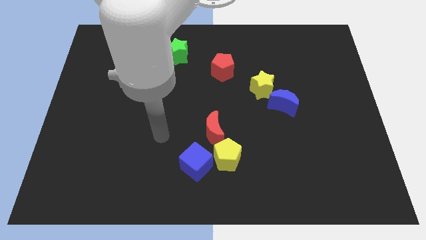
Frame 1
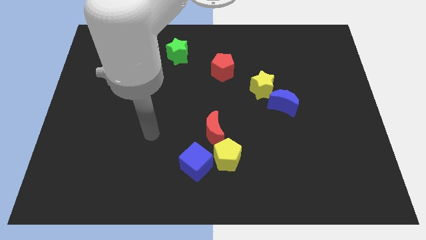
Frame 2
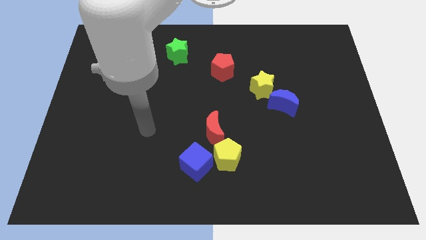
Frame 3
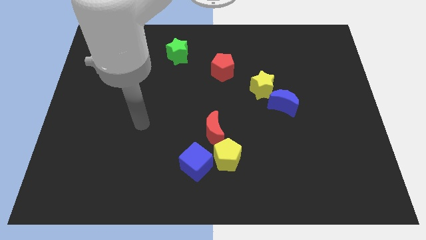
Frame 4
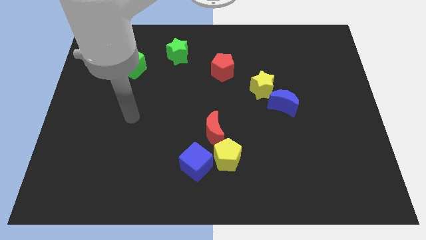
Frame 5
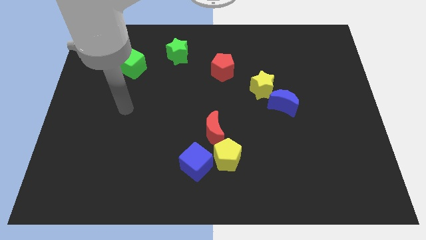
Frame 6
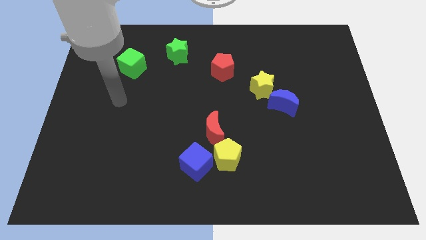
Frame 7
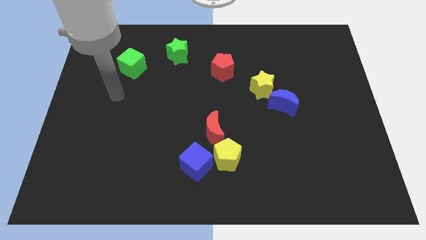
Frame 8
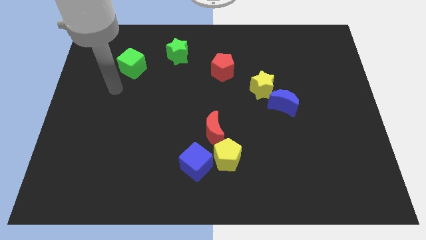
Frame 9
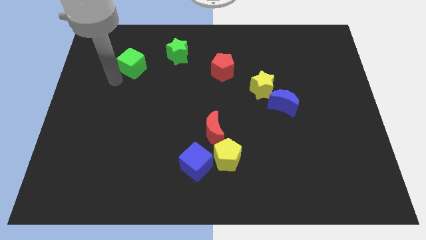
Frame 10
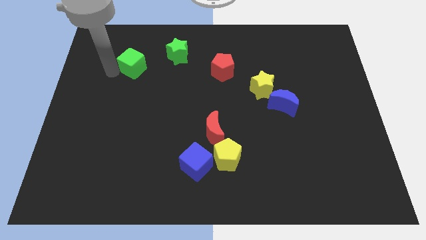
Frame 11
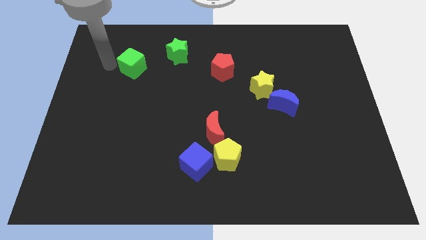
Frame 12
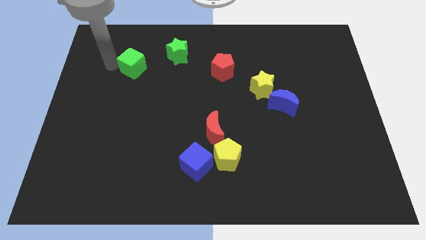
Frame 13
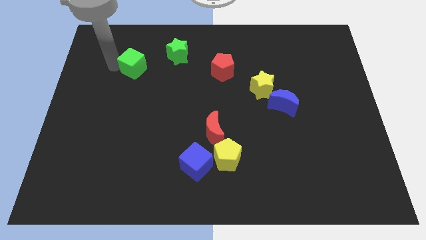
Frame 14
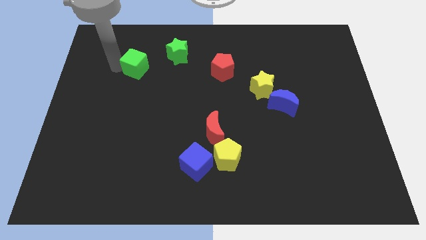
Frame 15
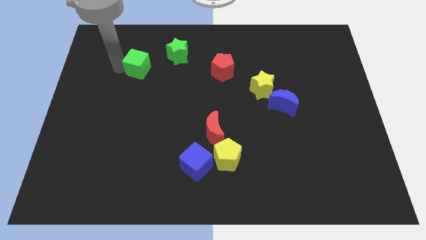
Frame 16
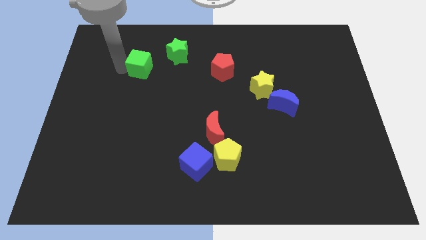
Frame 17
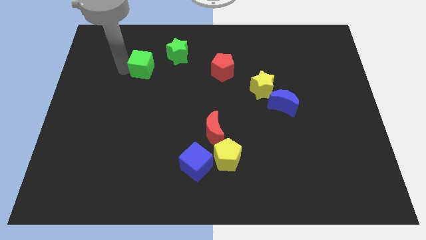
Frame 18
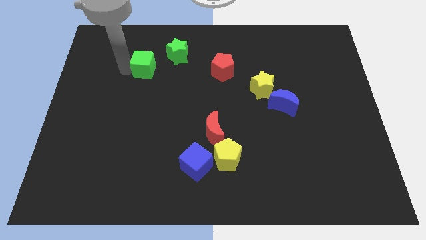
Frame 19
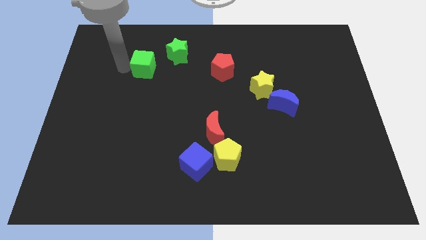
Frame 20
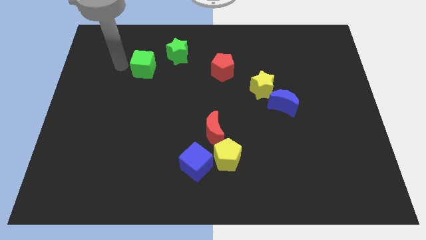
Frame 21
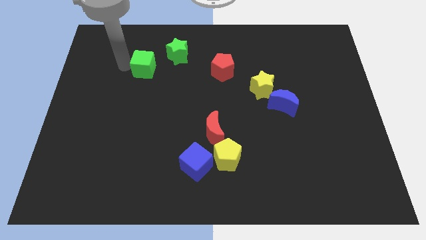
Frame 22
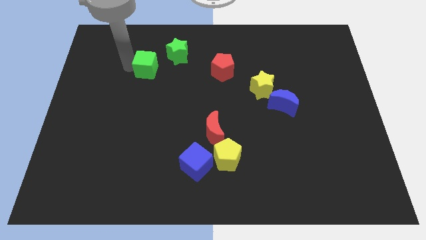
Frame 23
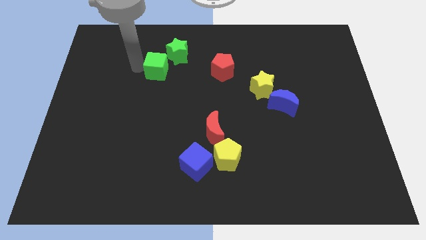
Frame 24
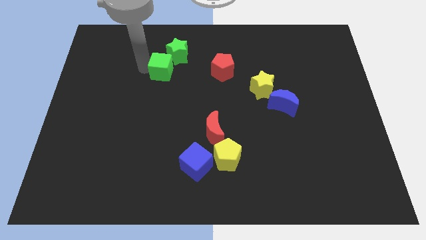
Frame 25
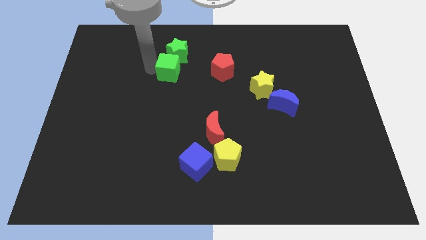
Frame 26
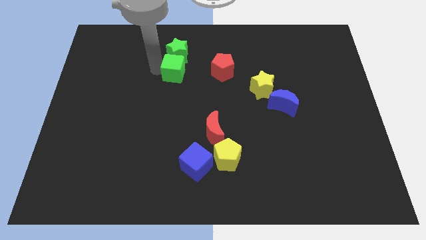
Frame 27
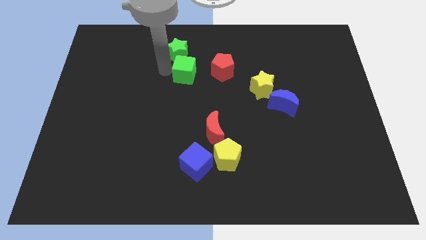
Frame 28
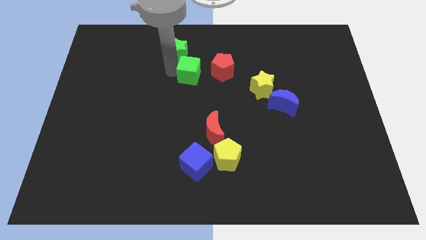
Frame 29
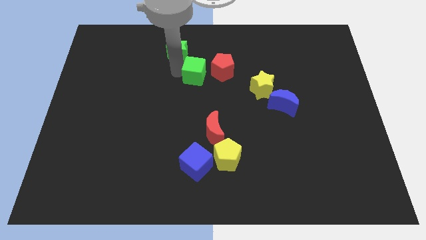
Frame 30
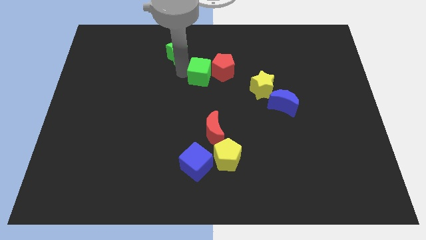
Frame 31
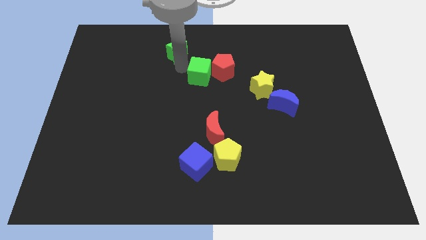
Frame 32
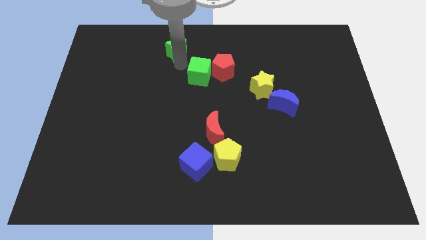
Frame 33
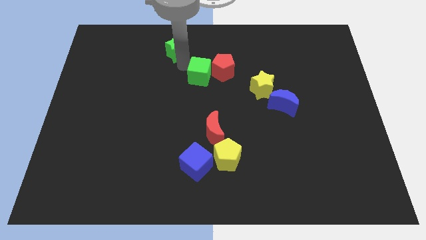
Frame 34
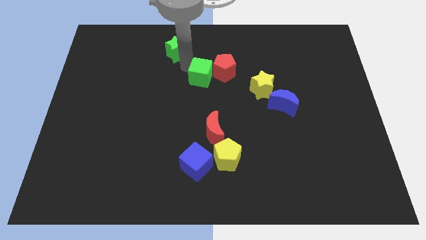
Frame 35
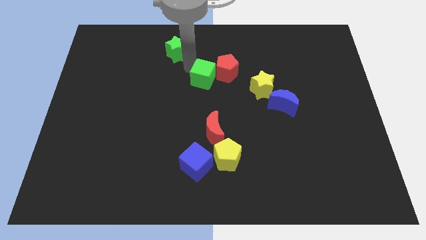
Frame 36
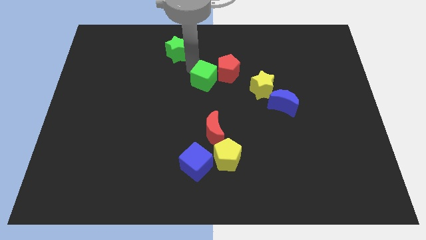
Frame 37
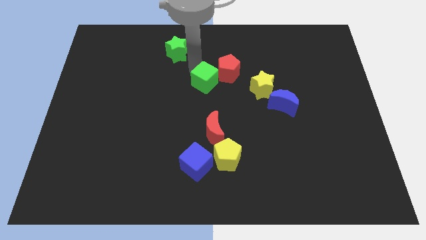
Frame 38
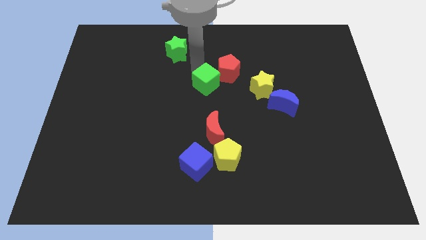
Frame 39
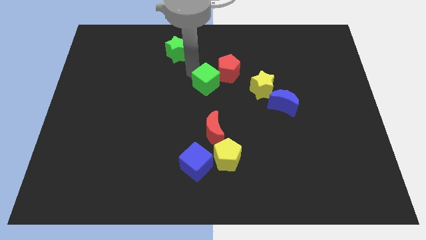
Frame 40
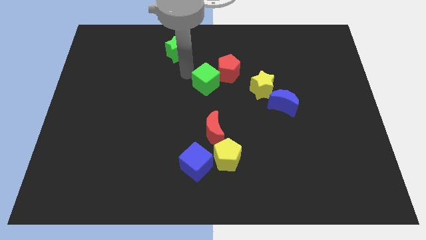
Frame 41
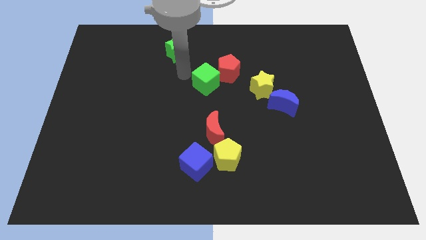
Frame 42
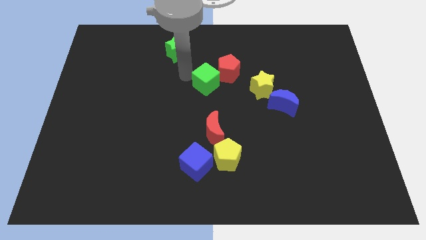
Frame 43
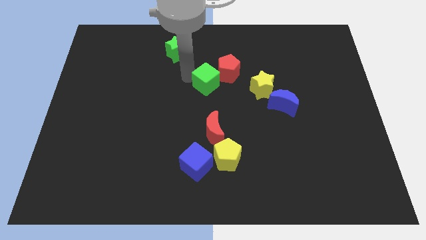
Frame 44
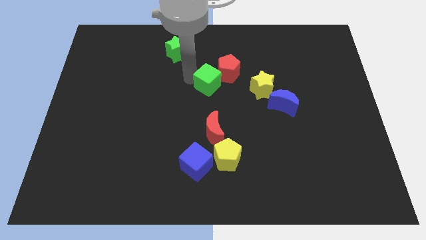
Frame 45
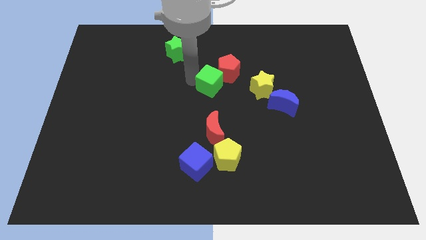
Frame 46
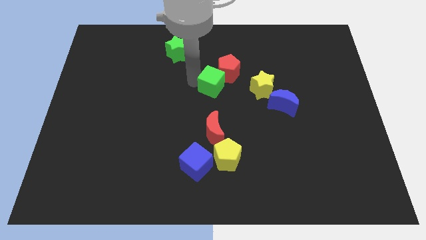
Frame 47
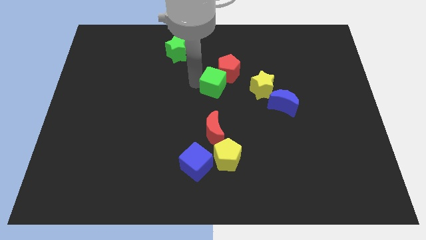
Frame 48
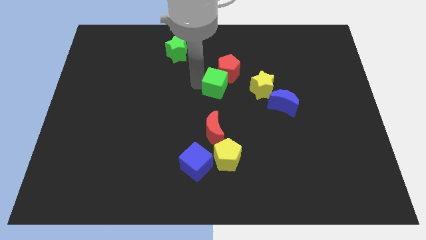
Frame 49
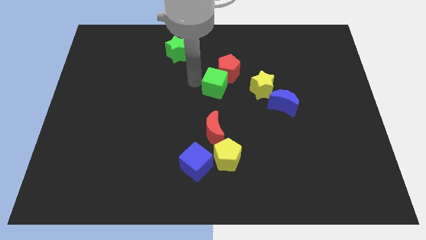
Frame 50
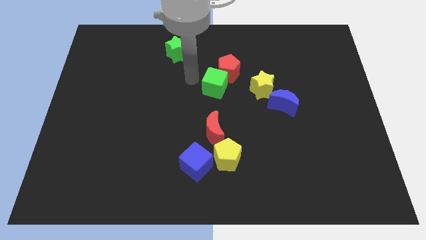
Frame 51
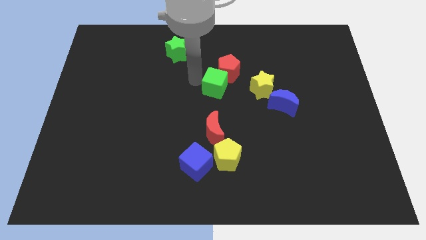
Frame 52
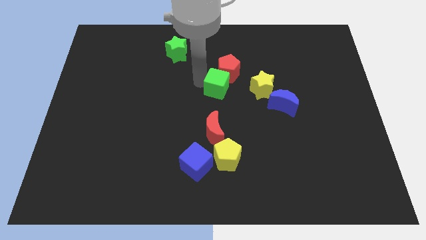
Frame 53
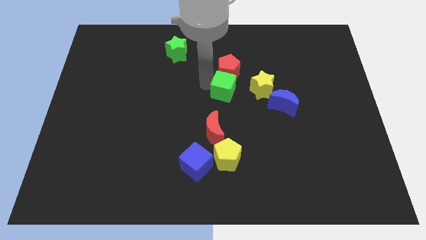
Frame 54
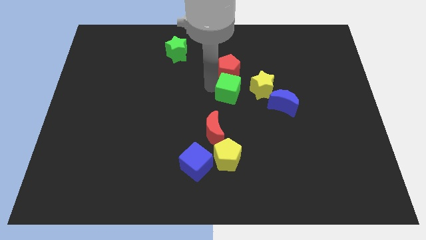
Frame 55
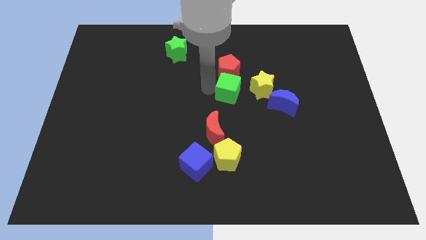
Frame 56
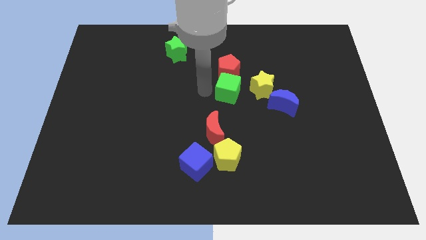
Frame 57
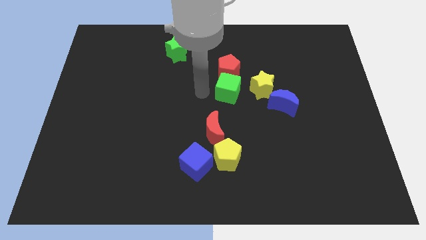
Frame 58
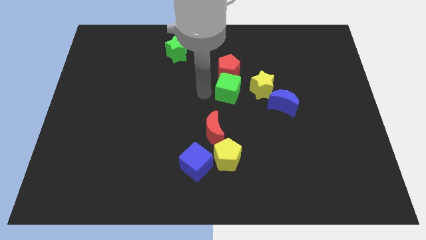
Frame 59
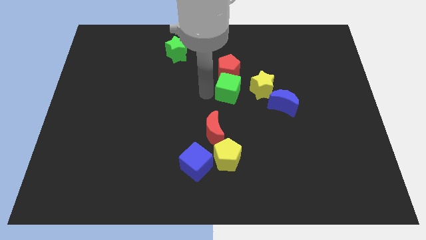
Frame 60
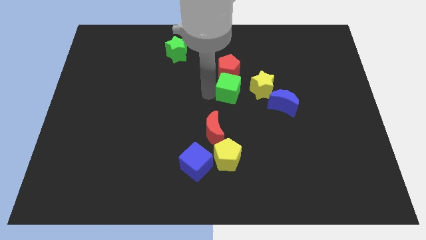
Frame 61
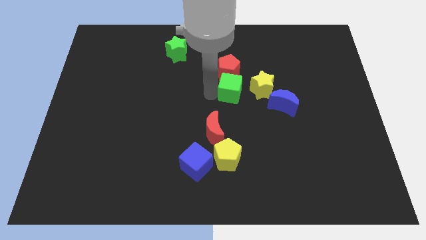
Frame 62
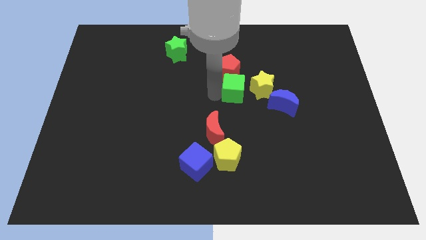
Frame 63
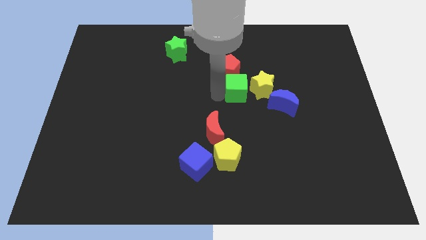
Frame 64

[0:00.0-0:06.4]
move the green cube to the yellow star

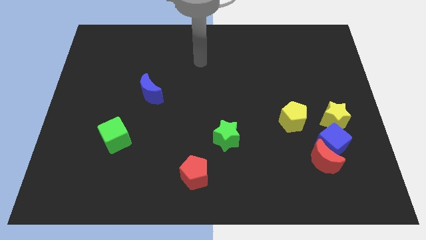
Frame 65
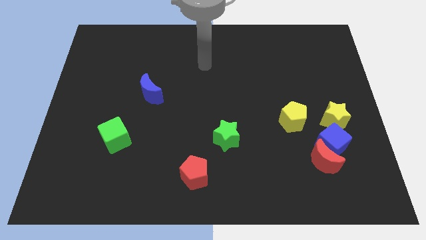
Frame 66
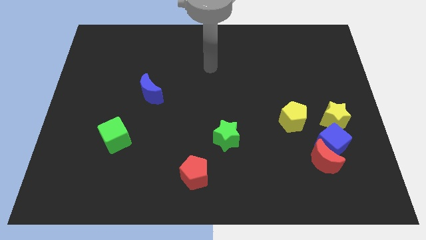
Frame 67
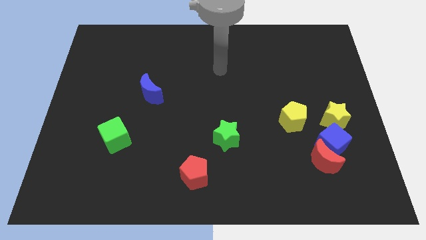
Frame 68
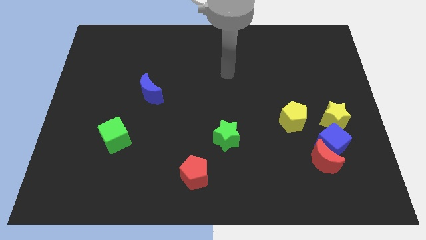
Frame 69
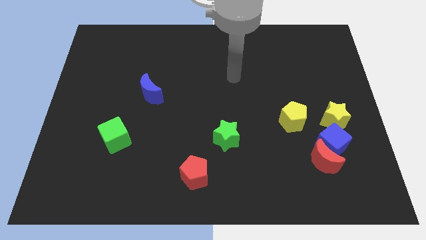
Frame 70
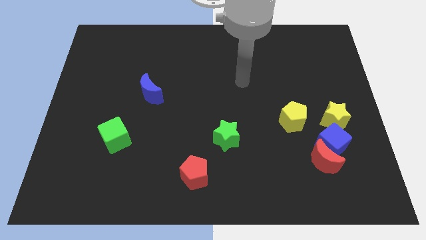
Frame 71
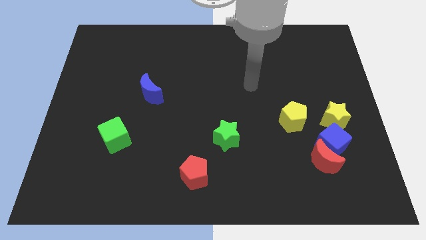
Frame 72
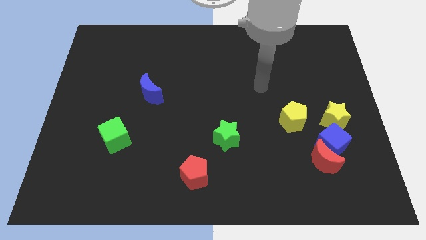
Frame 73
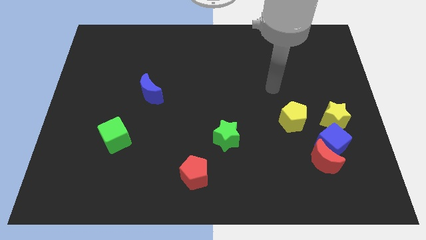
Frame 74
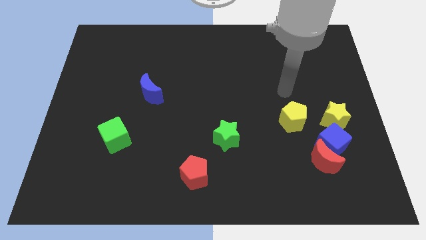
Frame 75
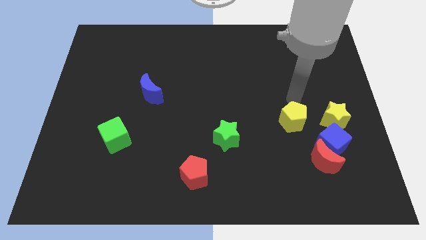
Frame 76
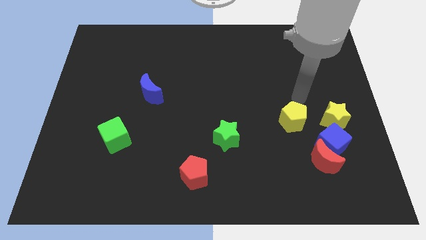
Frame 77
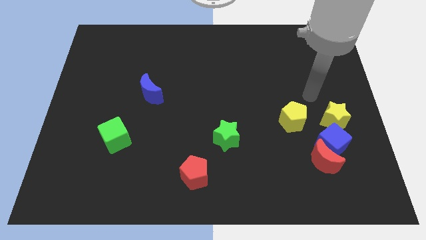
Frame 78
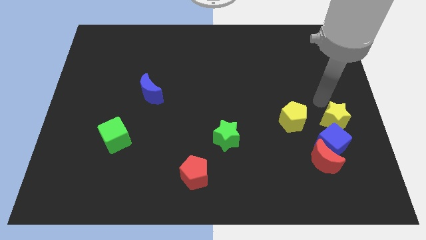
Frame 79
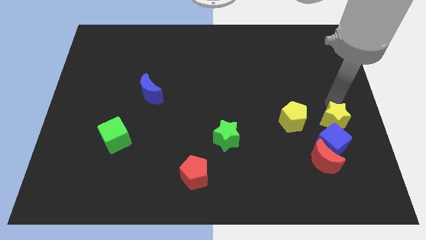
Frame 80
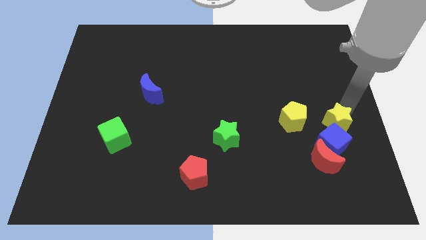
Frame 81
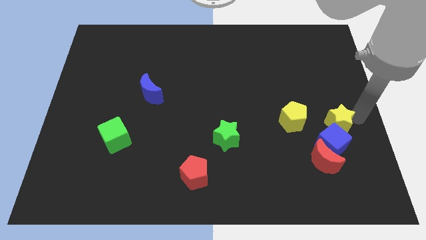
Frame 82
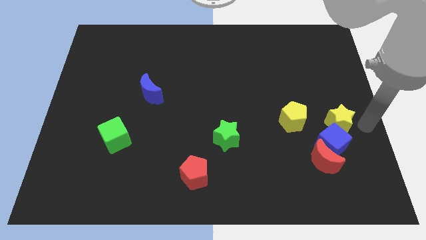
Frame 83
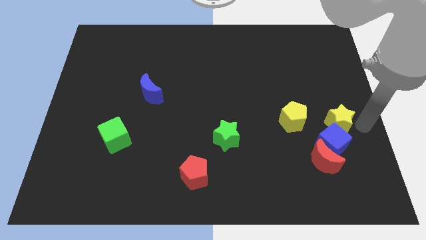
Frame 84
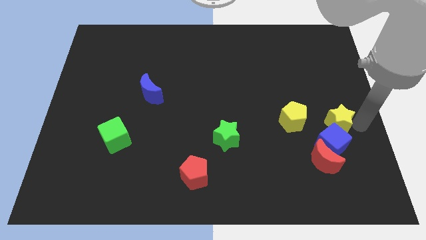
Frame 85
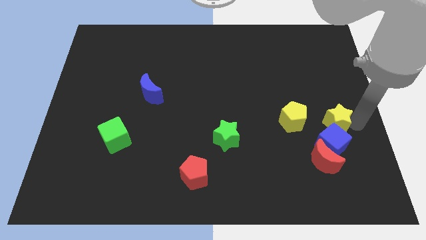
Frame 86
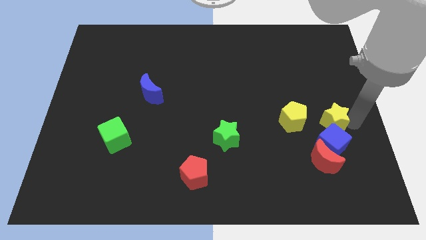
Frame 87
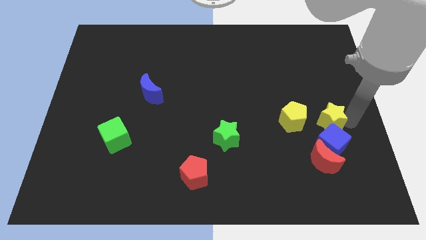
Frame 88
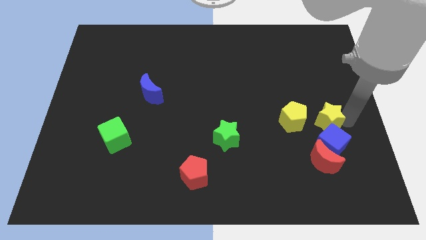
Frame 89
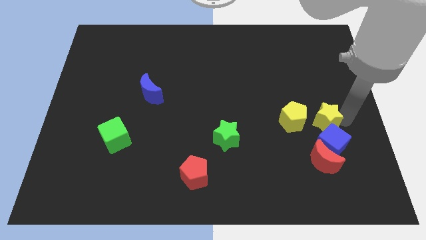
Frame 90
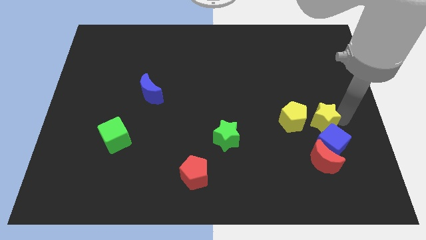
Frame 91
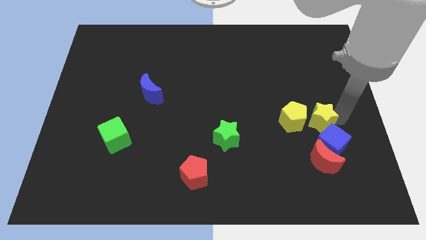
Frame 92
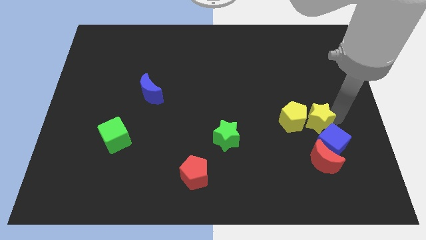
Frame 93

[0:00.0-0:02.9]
push the yellow star to the yellow pentagon
